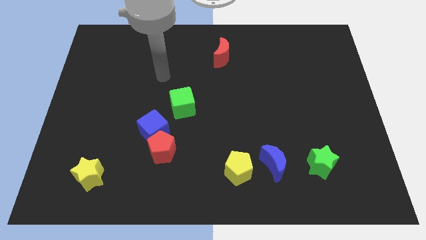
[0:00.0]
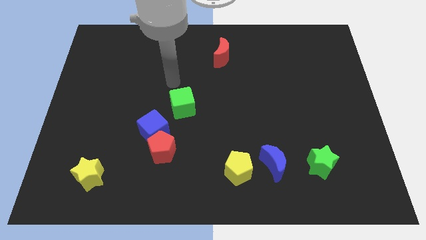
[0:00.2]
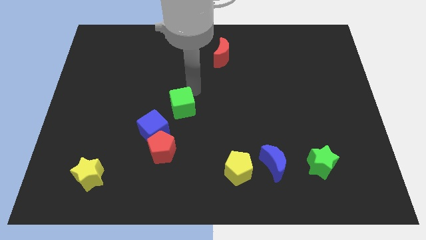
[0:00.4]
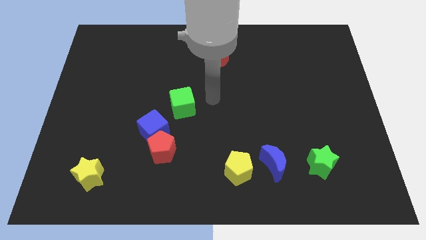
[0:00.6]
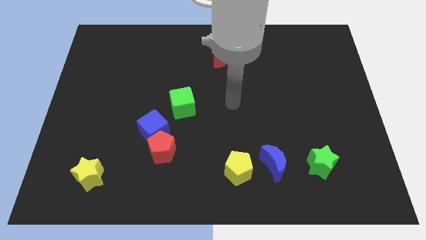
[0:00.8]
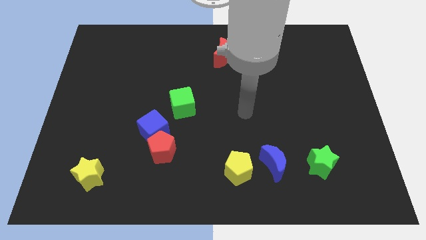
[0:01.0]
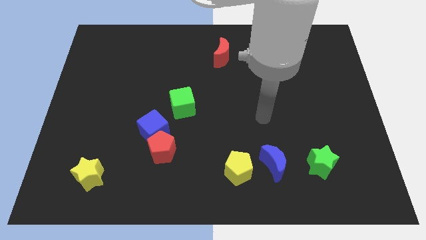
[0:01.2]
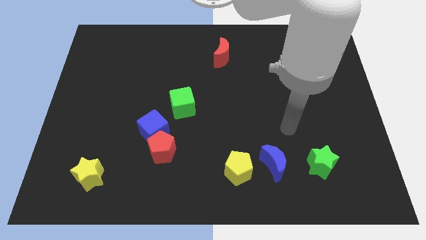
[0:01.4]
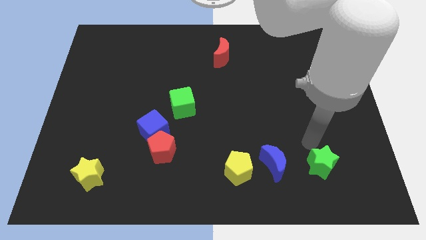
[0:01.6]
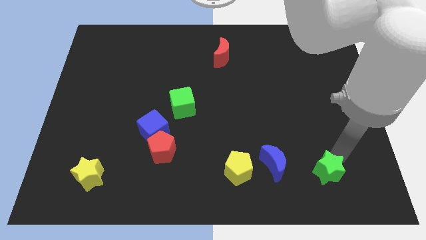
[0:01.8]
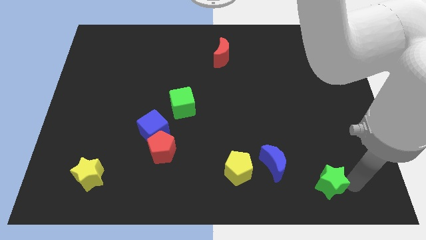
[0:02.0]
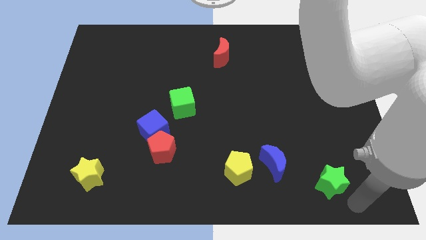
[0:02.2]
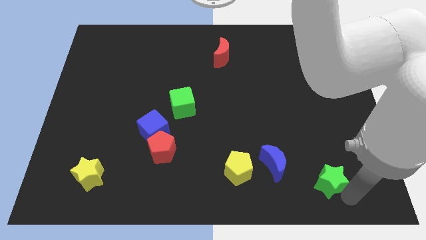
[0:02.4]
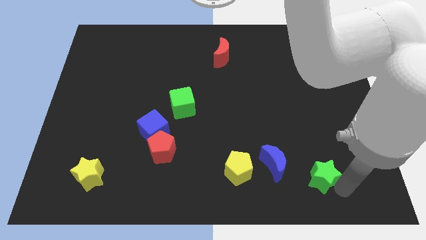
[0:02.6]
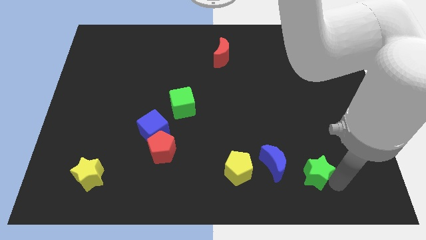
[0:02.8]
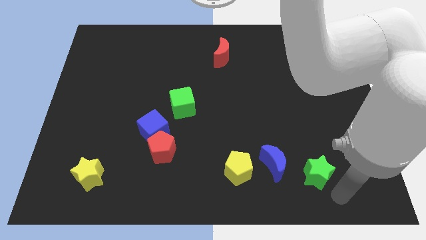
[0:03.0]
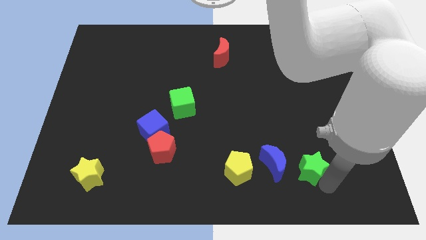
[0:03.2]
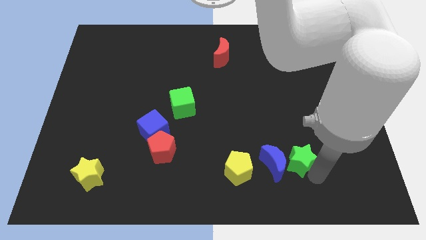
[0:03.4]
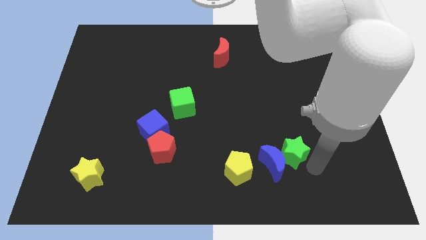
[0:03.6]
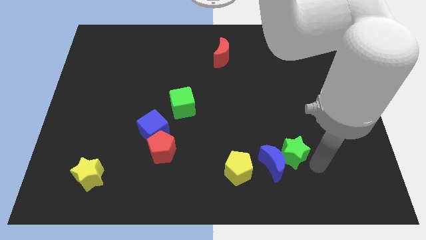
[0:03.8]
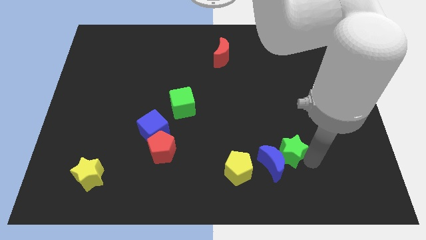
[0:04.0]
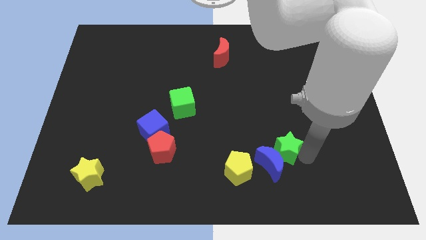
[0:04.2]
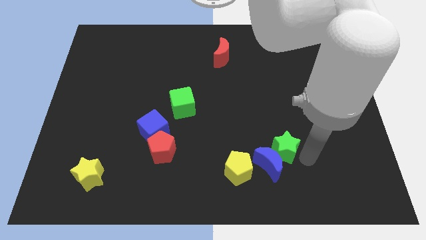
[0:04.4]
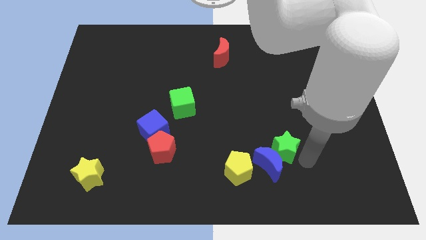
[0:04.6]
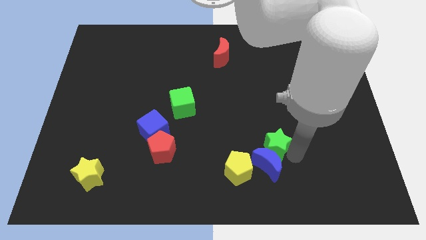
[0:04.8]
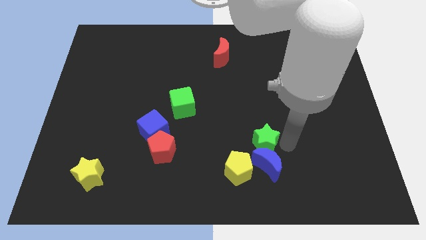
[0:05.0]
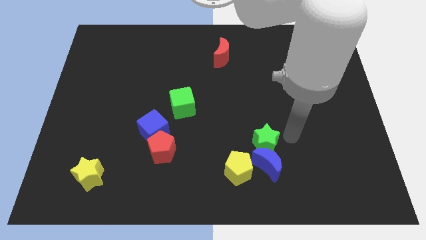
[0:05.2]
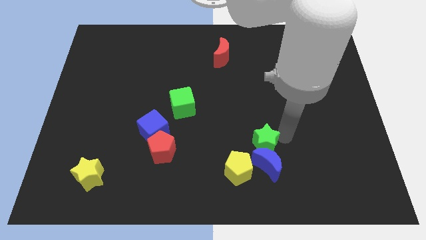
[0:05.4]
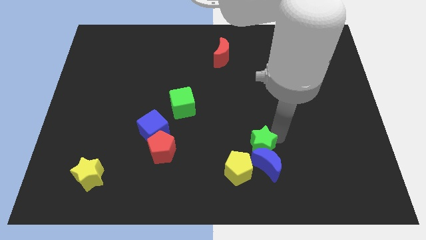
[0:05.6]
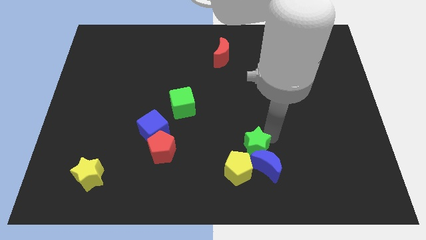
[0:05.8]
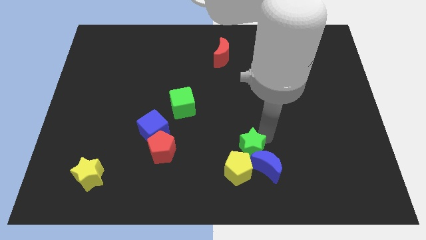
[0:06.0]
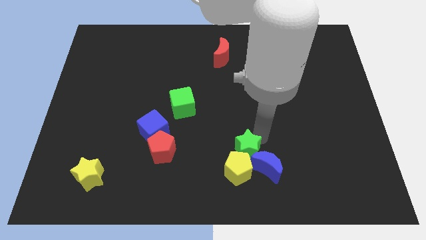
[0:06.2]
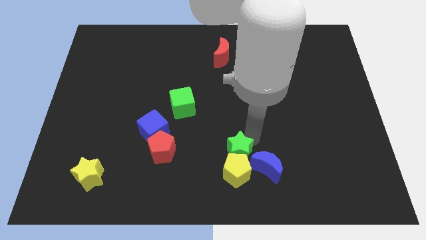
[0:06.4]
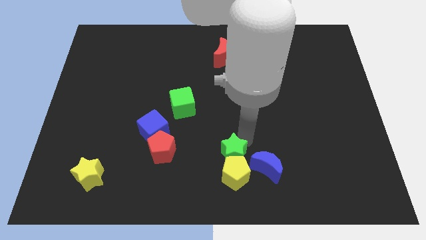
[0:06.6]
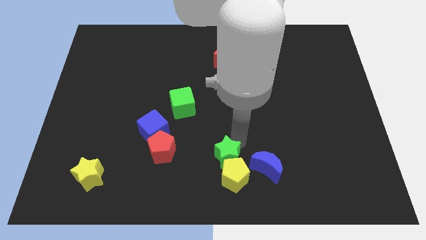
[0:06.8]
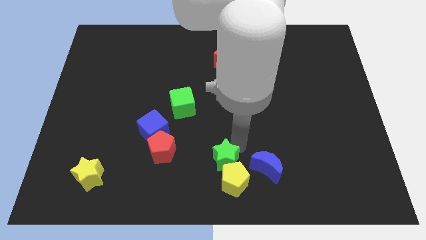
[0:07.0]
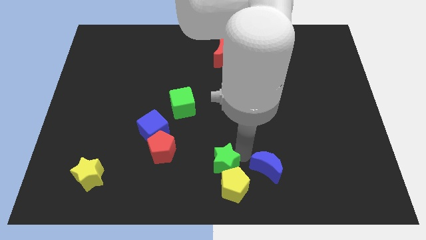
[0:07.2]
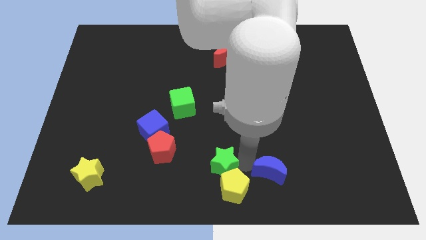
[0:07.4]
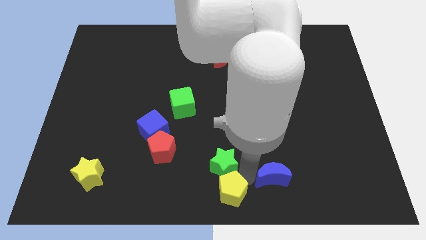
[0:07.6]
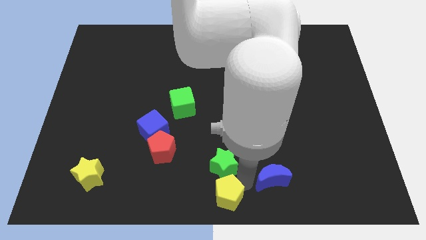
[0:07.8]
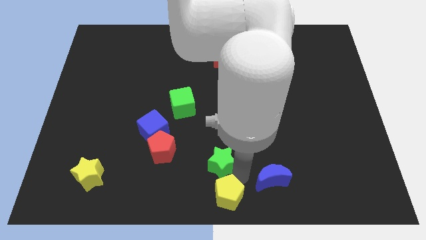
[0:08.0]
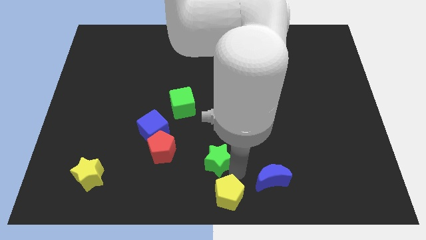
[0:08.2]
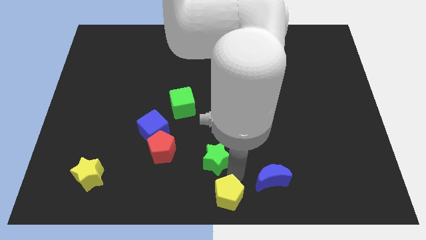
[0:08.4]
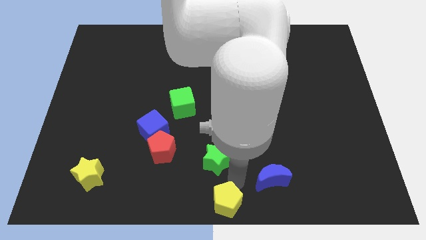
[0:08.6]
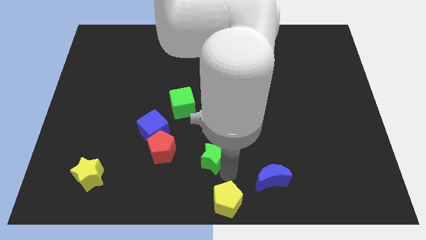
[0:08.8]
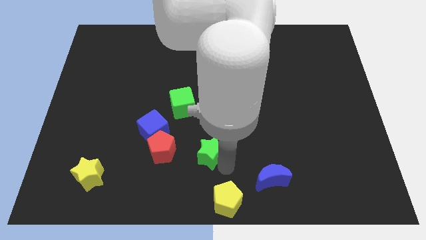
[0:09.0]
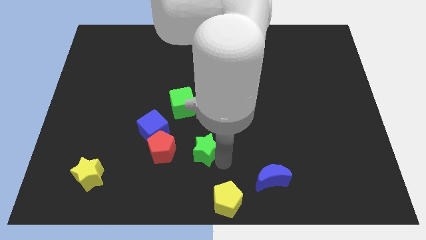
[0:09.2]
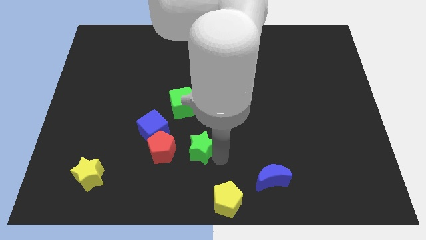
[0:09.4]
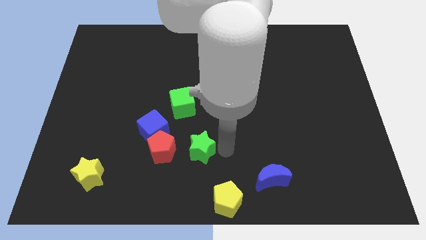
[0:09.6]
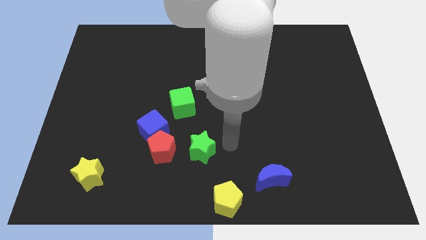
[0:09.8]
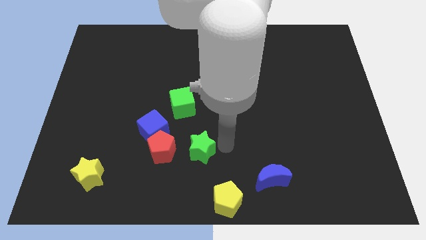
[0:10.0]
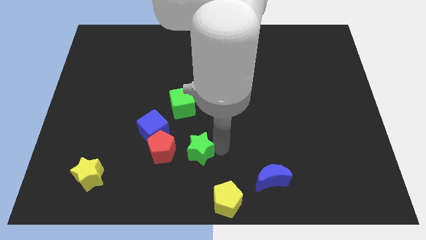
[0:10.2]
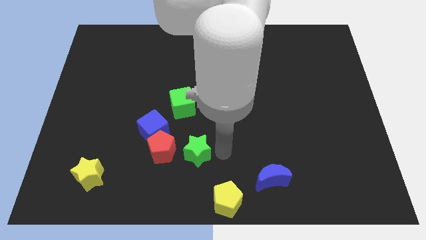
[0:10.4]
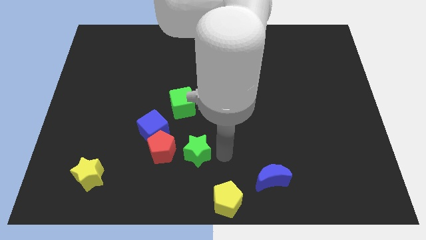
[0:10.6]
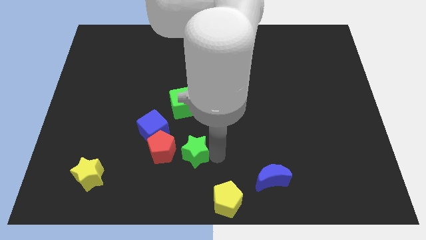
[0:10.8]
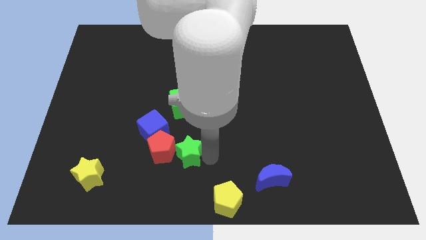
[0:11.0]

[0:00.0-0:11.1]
slide the green star close to the red pentagon

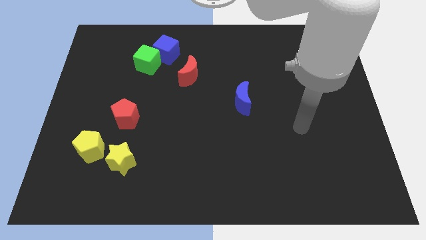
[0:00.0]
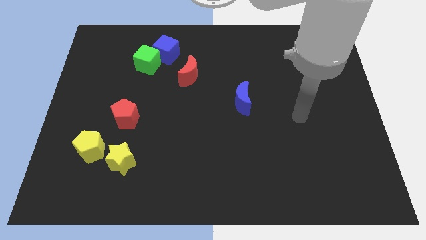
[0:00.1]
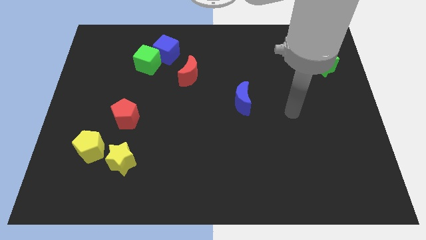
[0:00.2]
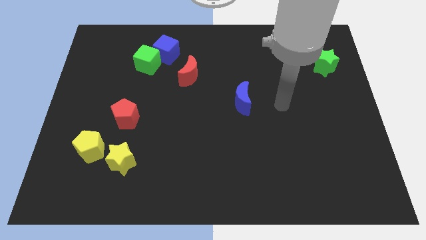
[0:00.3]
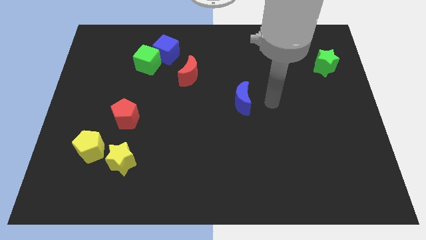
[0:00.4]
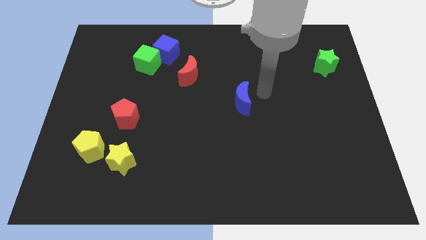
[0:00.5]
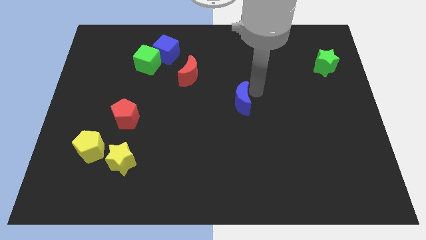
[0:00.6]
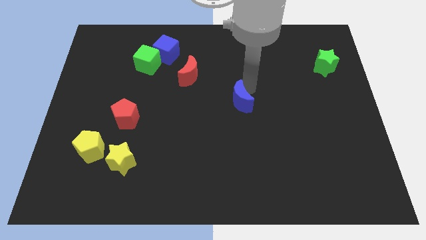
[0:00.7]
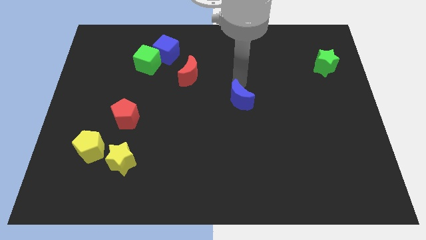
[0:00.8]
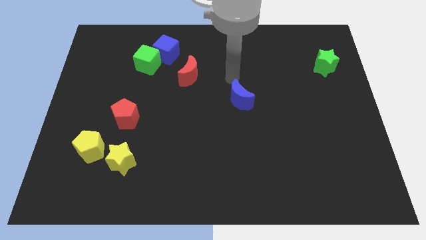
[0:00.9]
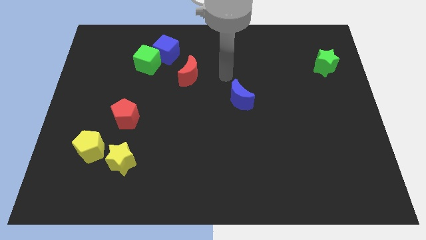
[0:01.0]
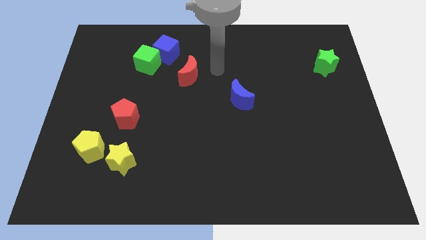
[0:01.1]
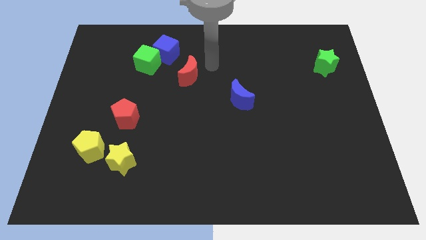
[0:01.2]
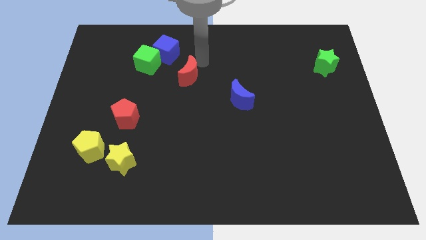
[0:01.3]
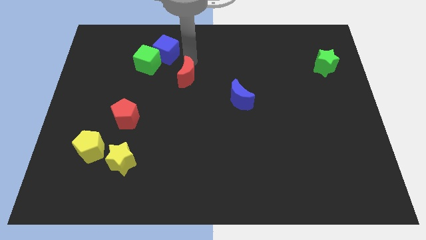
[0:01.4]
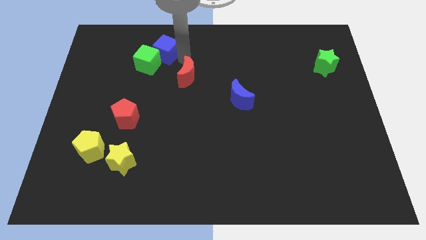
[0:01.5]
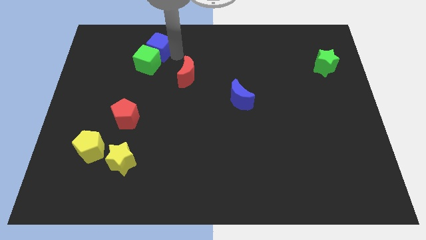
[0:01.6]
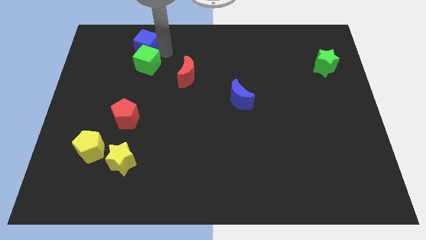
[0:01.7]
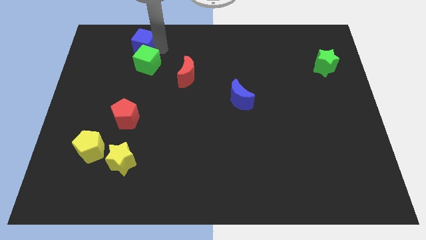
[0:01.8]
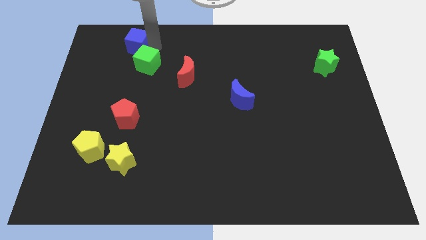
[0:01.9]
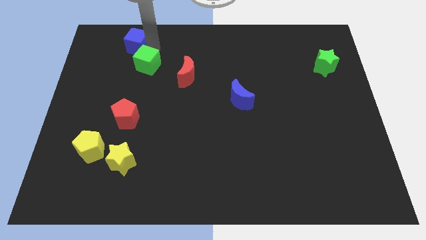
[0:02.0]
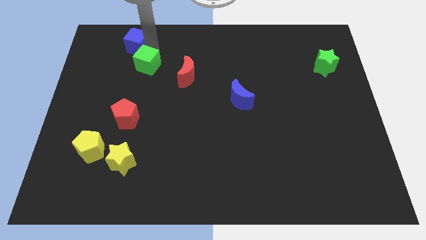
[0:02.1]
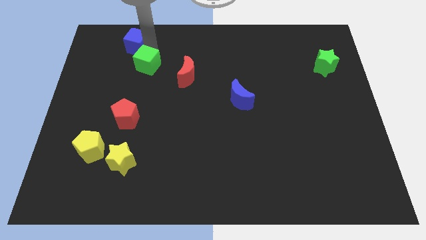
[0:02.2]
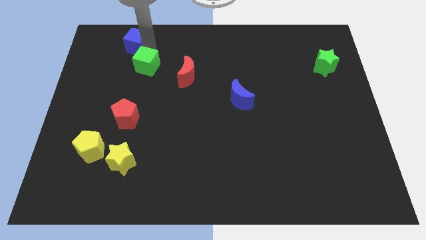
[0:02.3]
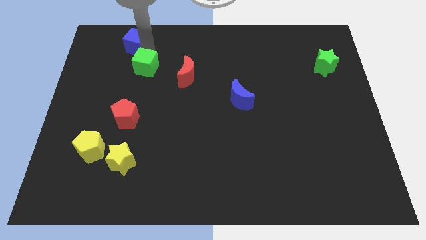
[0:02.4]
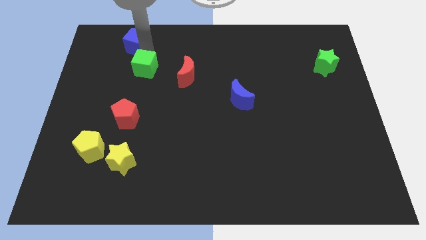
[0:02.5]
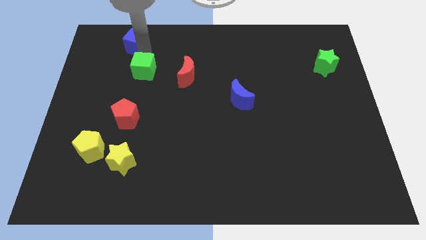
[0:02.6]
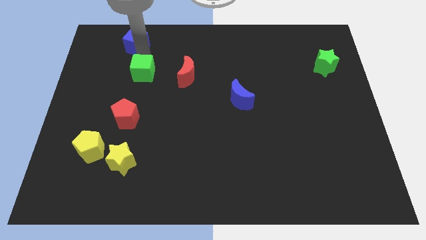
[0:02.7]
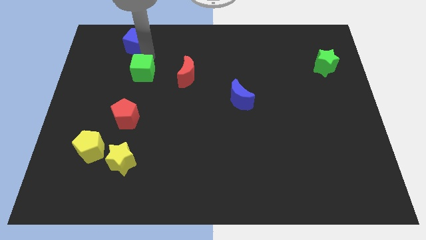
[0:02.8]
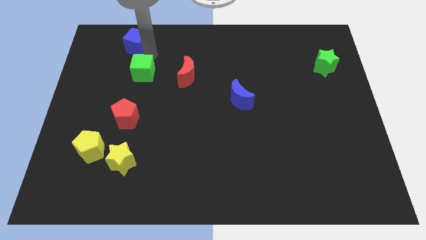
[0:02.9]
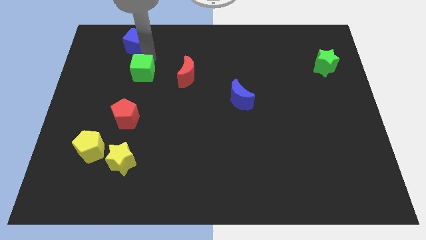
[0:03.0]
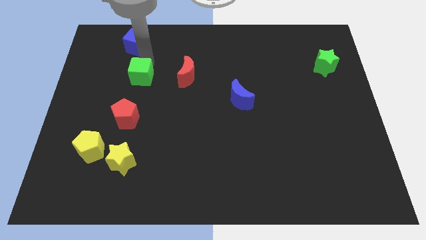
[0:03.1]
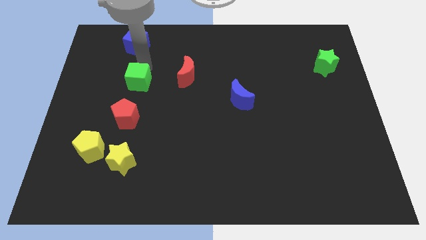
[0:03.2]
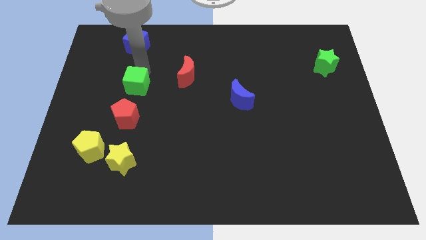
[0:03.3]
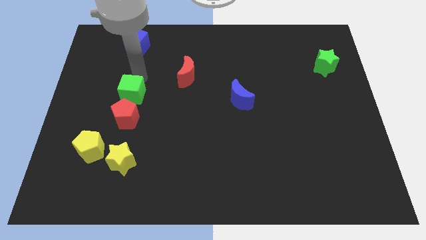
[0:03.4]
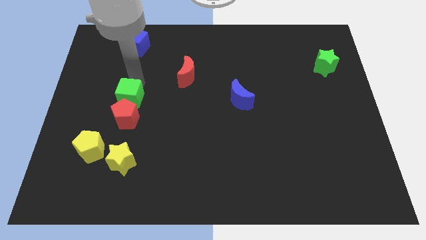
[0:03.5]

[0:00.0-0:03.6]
slide the green cube next to the red pentagon
